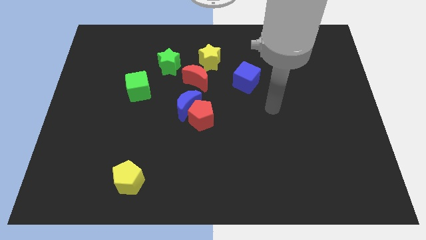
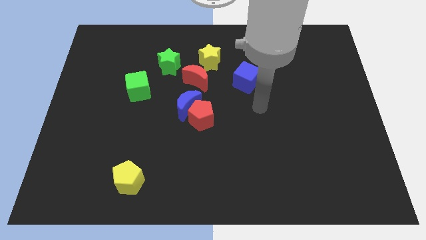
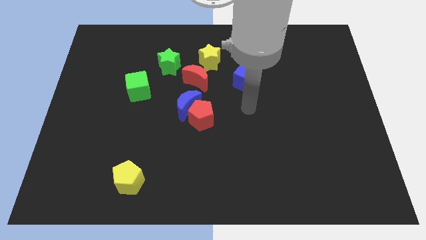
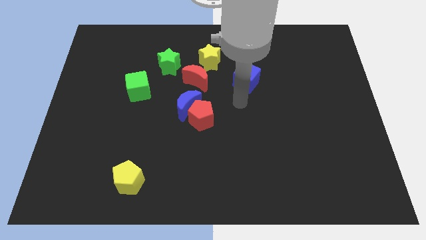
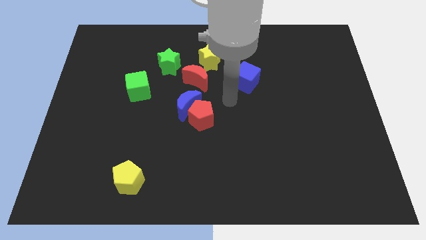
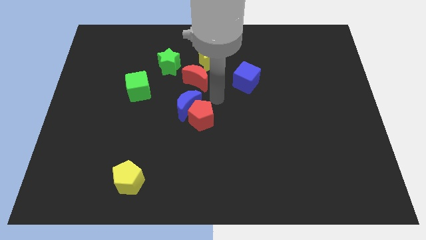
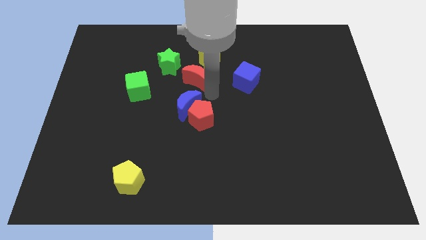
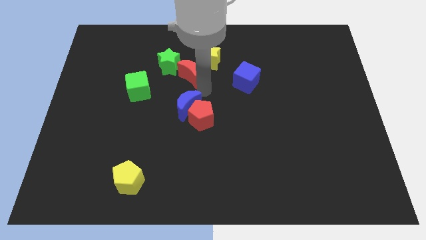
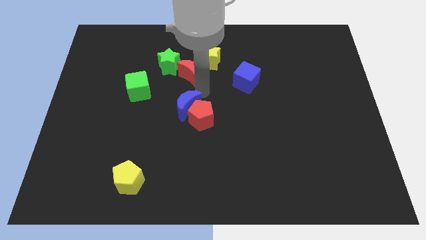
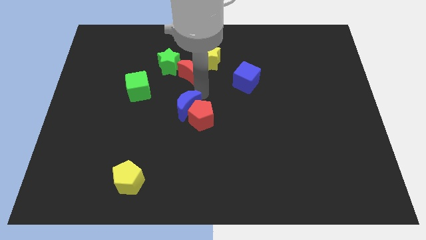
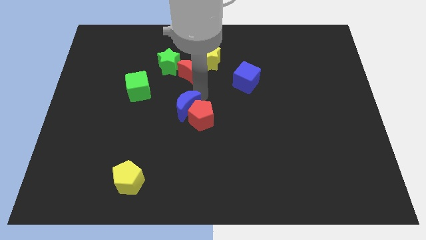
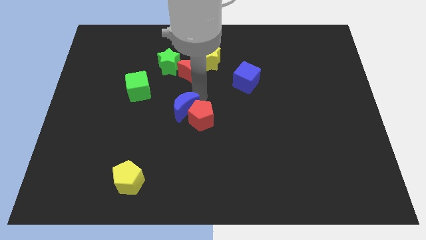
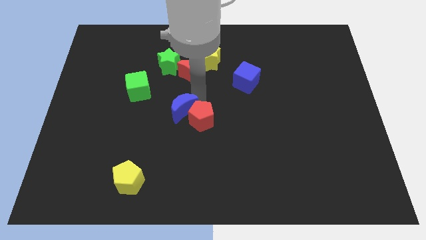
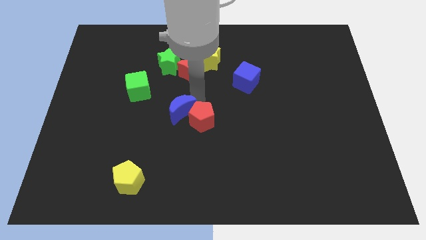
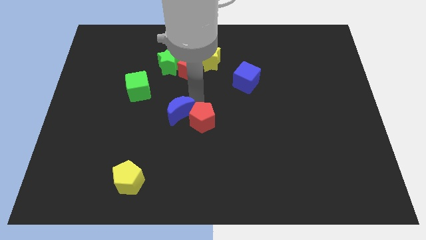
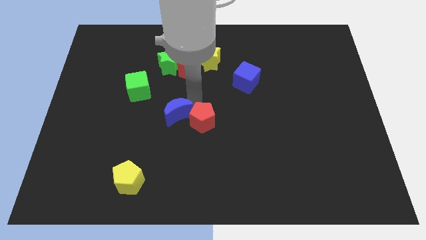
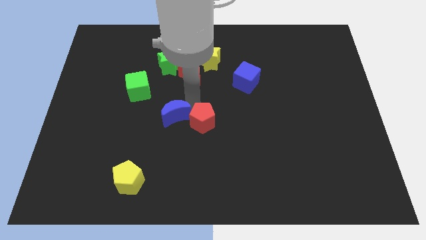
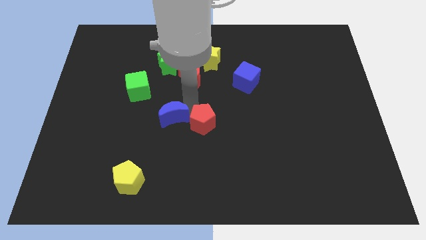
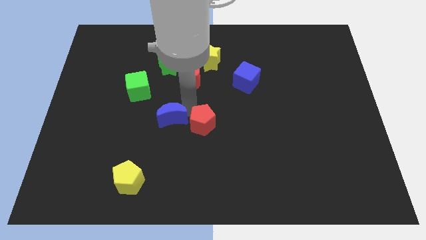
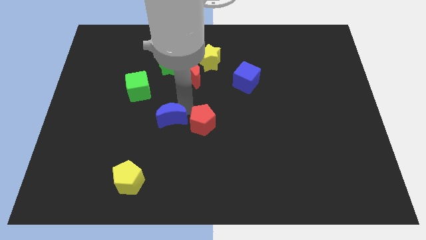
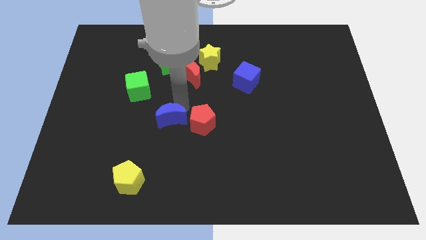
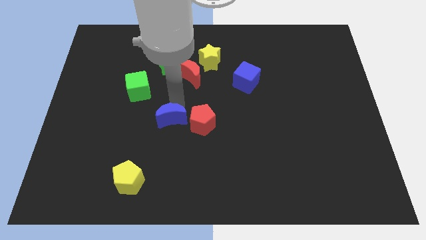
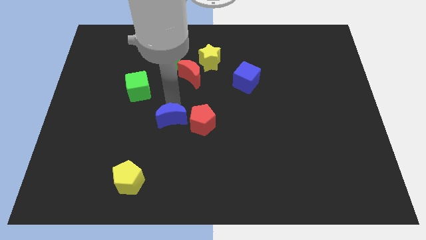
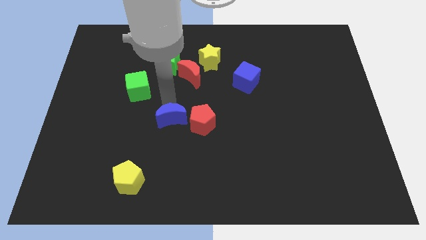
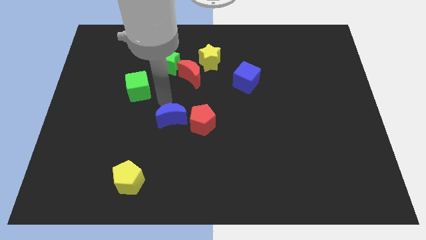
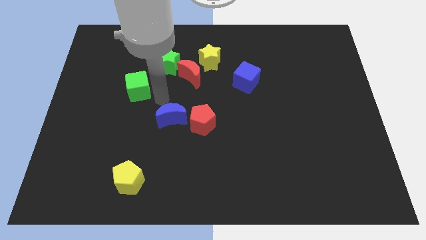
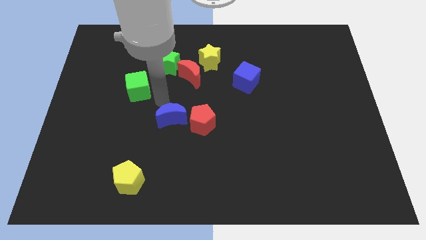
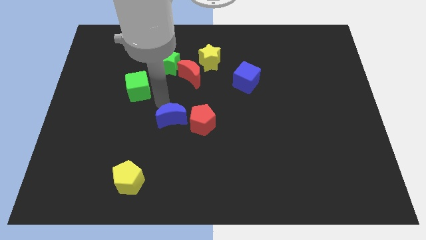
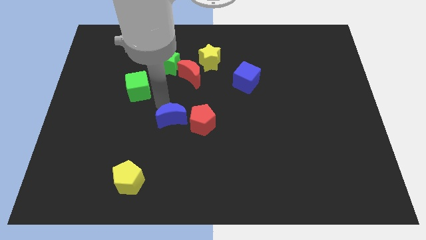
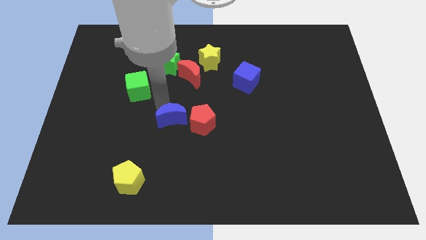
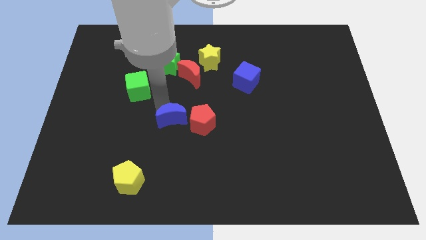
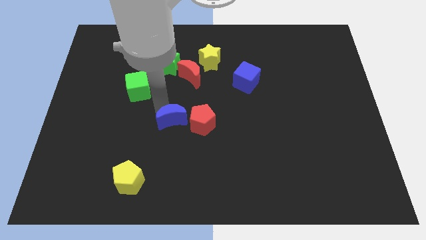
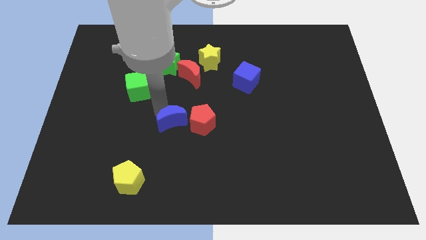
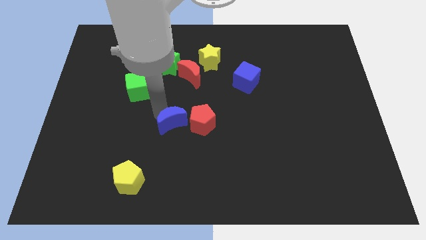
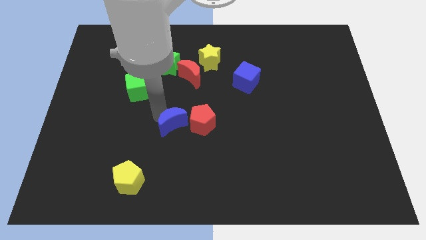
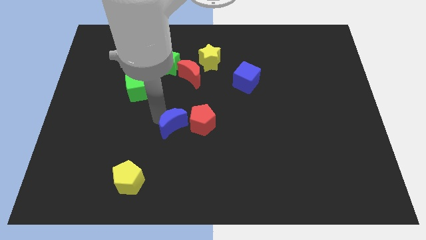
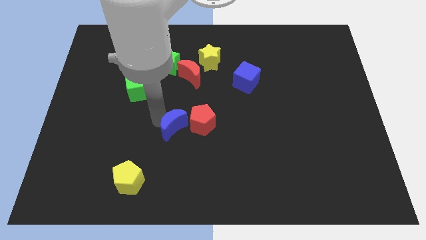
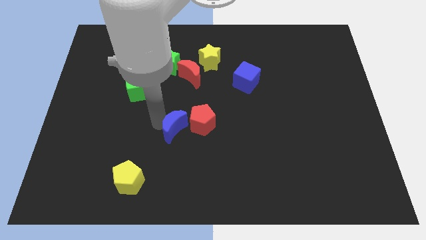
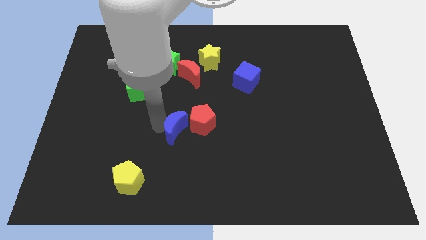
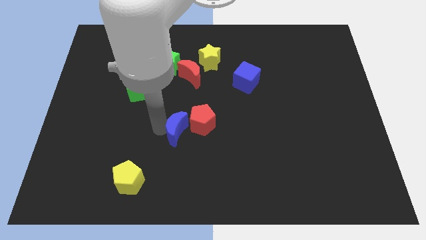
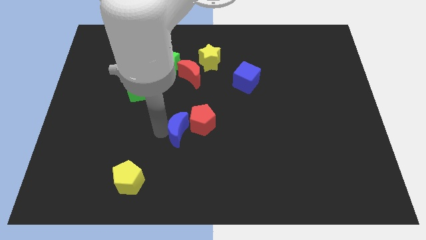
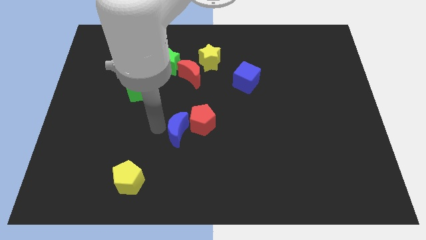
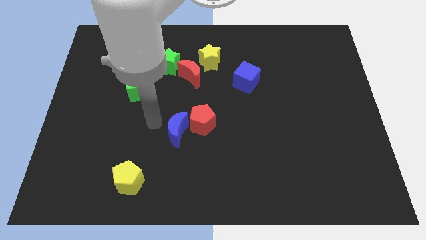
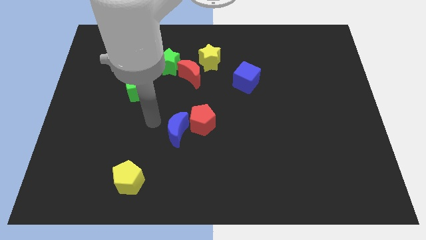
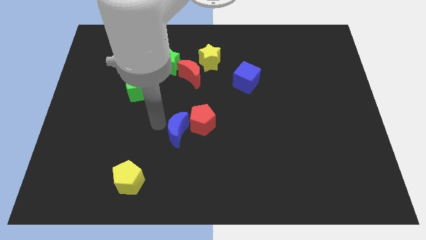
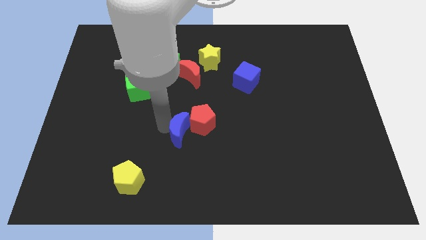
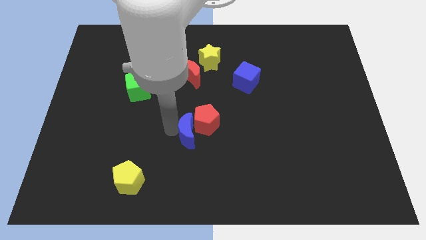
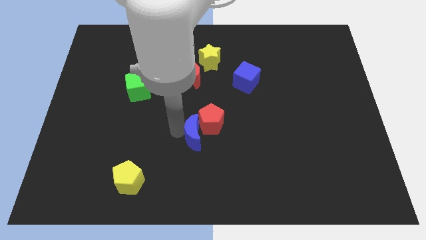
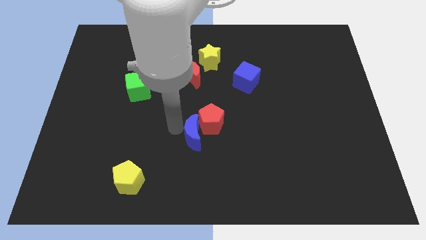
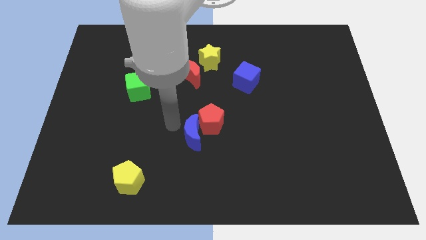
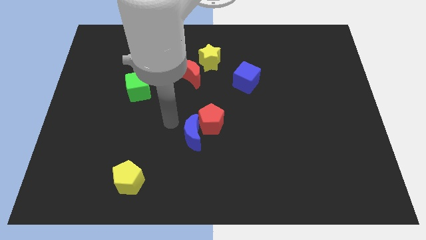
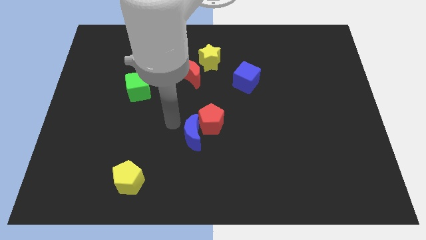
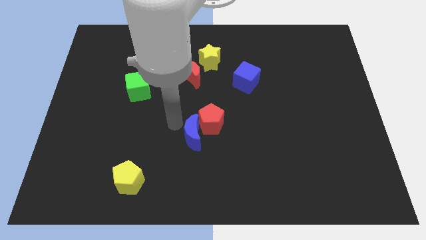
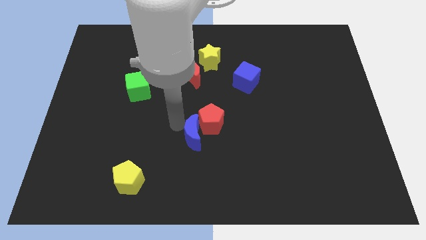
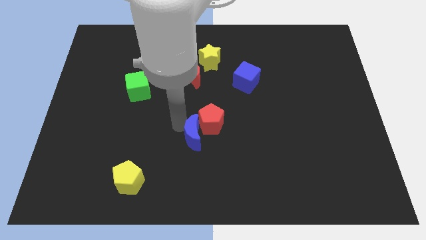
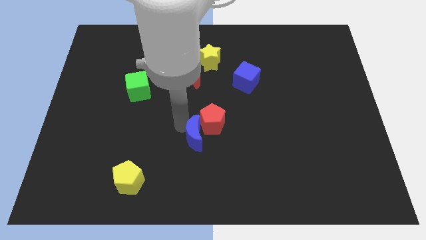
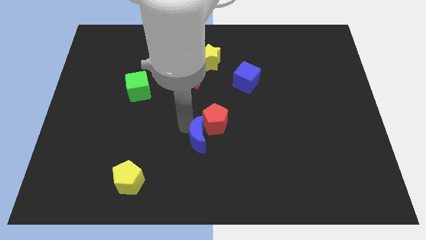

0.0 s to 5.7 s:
slightly move the blue moon downwards and to the right

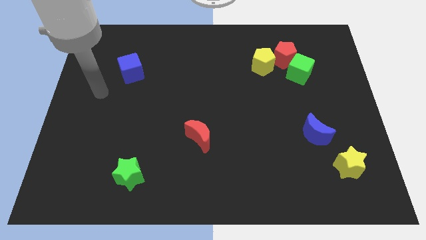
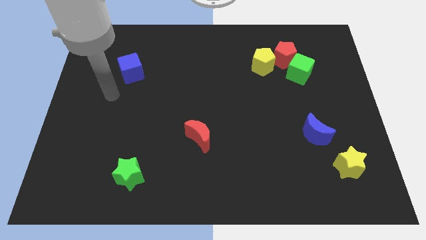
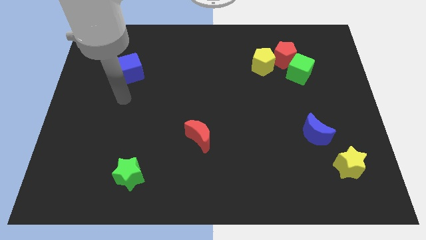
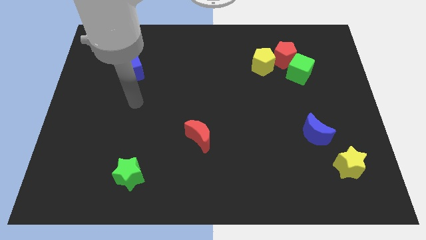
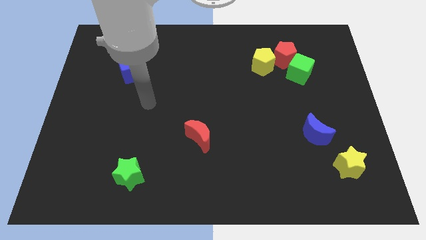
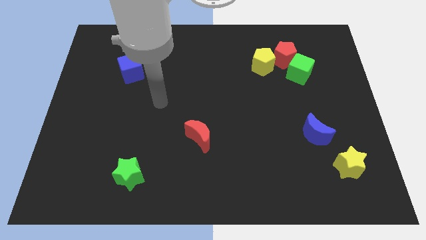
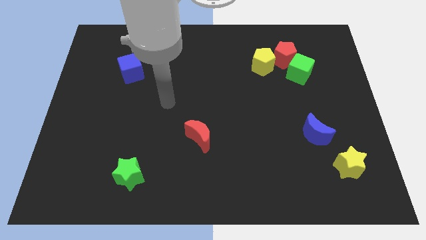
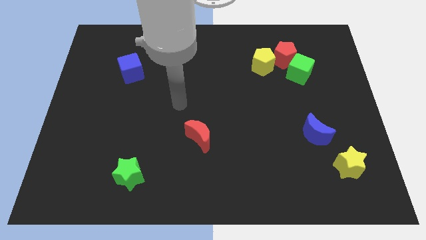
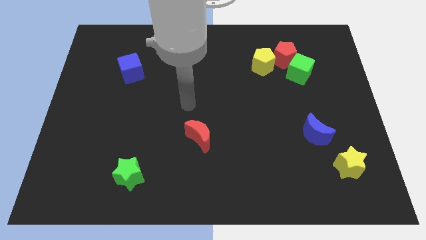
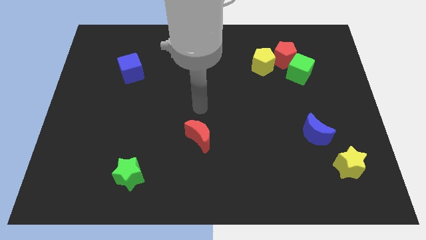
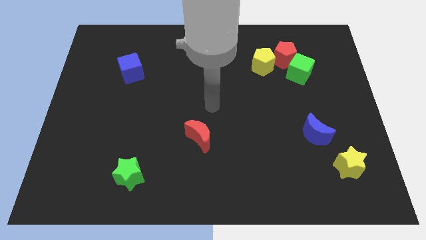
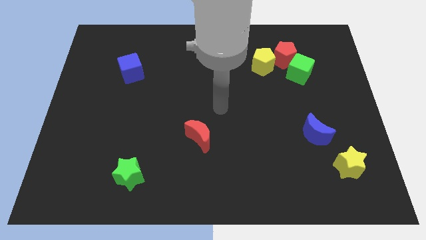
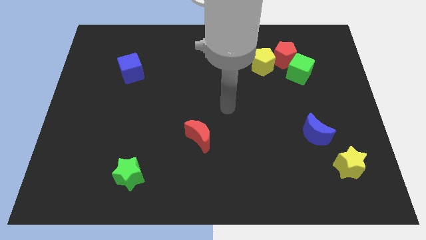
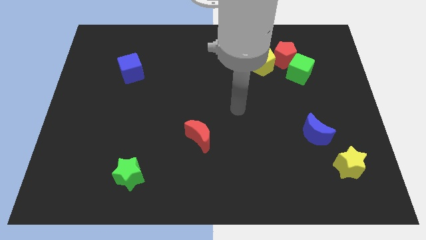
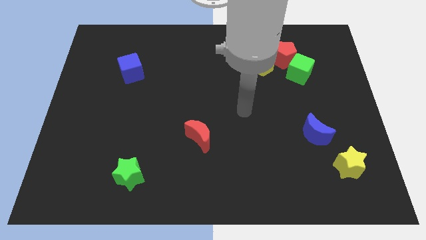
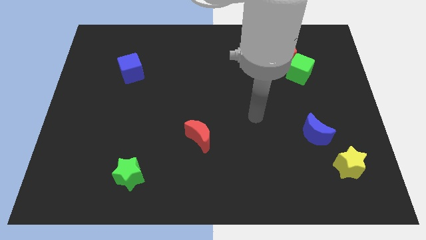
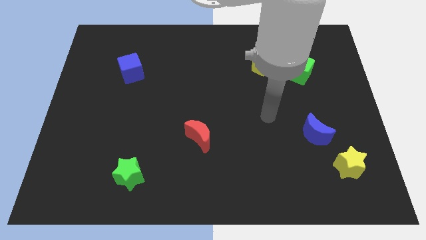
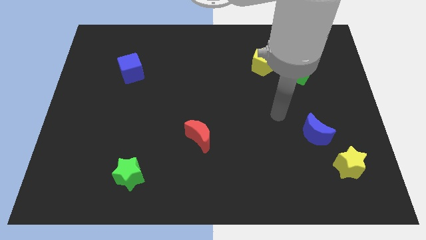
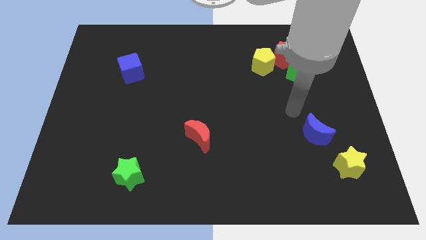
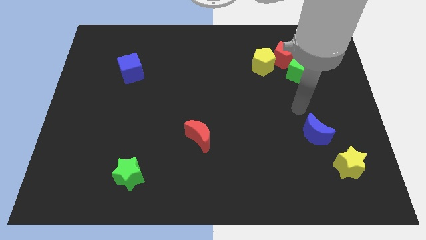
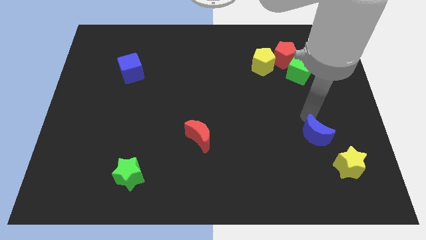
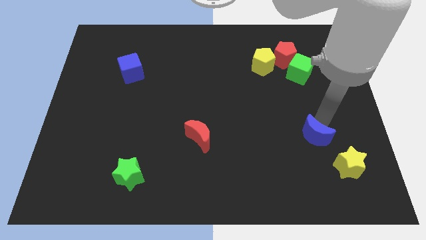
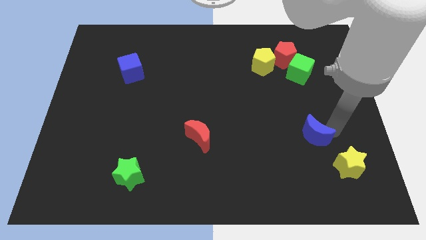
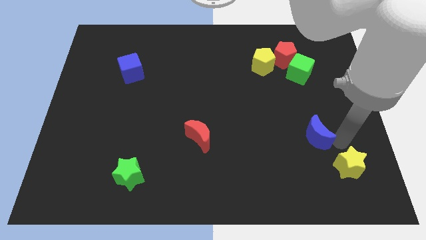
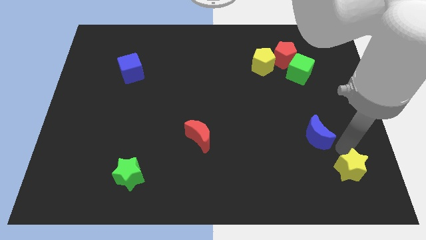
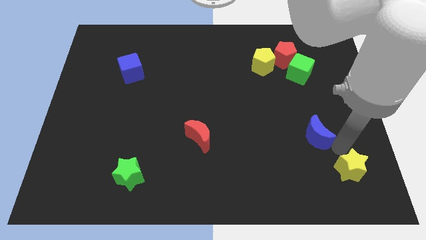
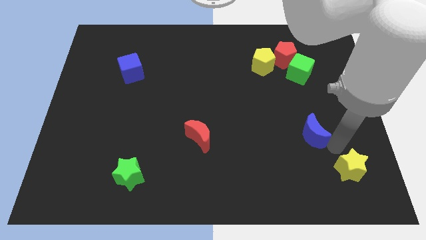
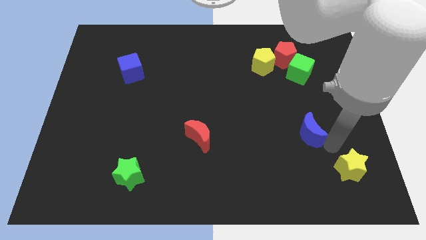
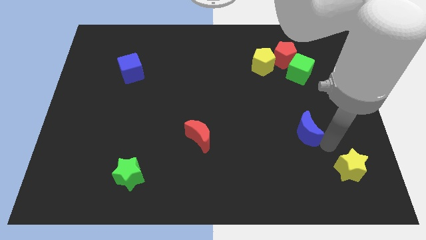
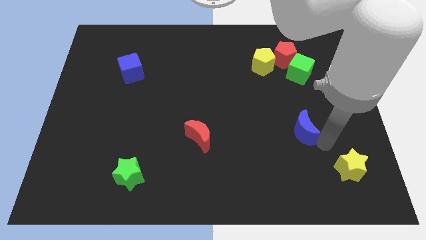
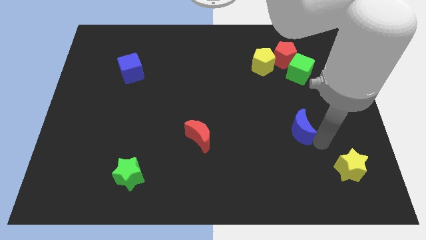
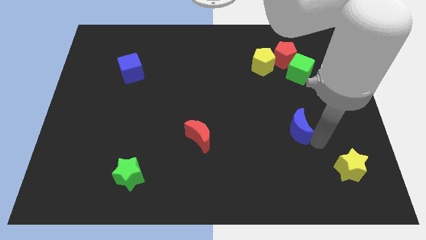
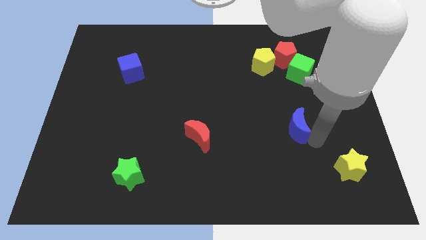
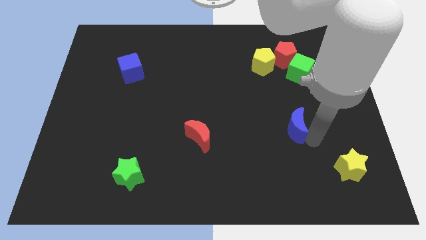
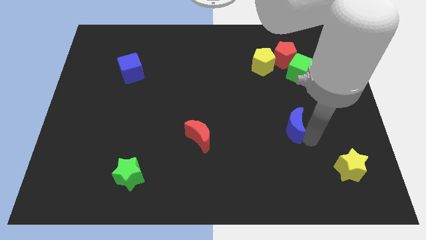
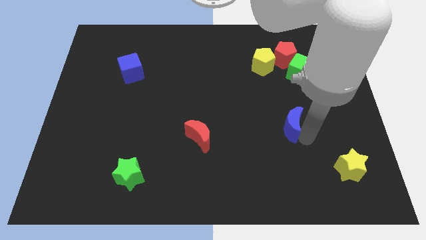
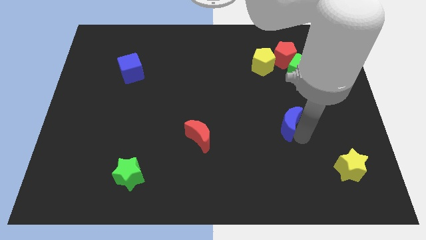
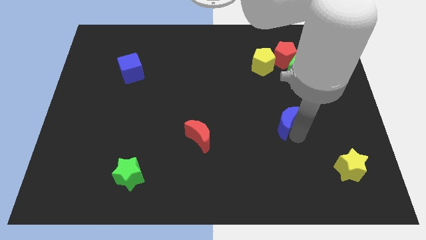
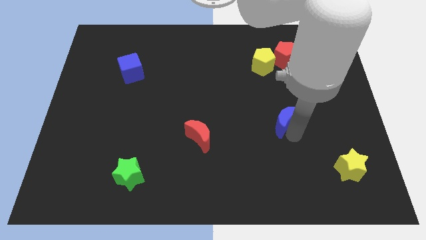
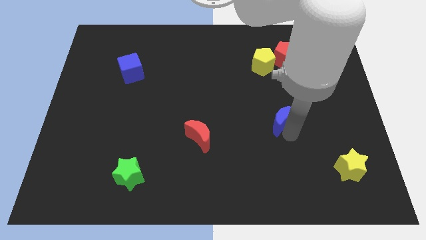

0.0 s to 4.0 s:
slightly slide the blue moon up and to the left diagonally
